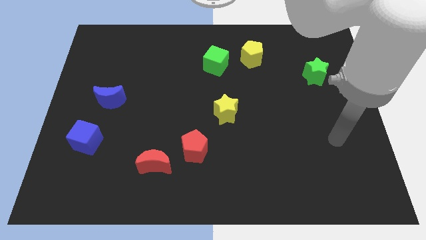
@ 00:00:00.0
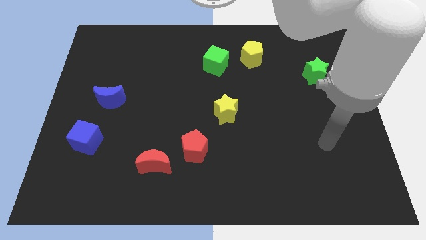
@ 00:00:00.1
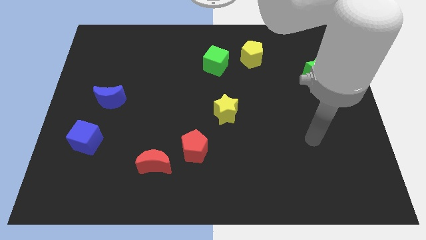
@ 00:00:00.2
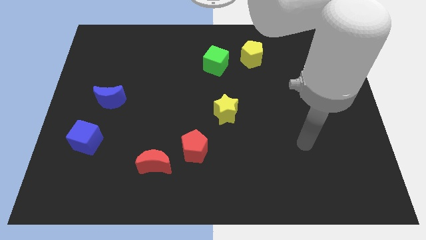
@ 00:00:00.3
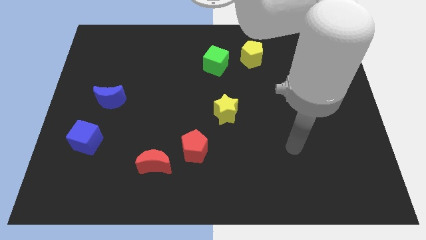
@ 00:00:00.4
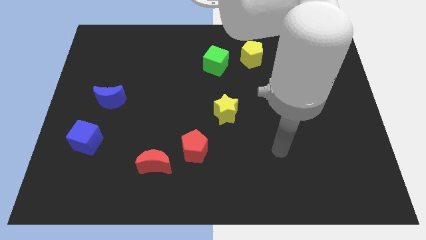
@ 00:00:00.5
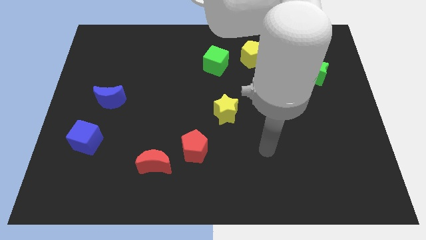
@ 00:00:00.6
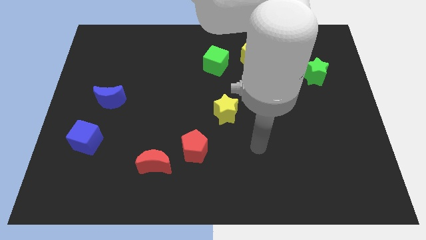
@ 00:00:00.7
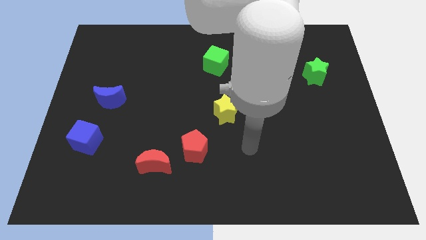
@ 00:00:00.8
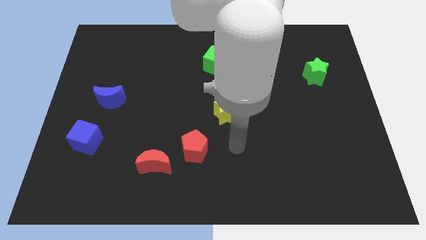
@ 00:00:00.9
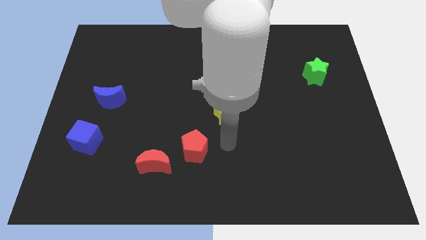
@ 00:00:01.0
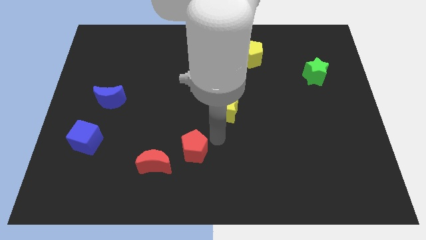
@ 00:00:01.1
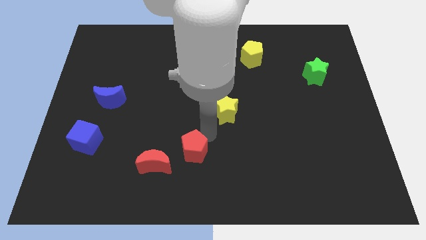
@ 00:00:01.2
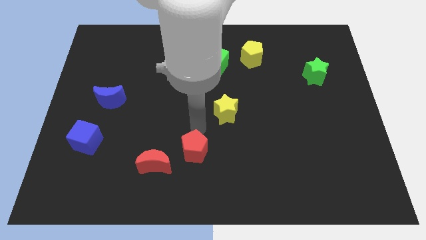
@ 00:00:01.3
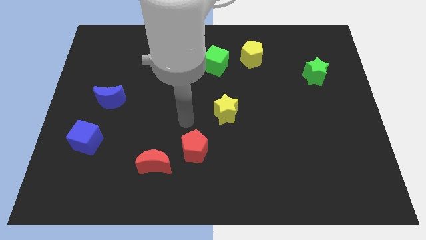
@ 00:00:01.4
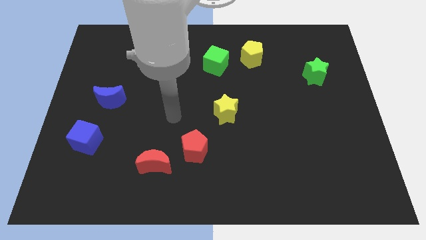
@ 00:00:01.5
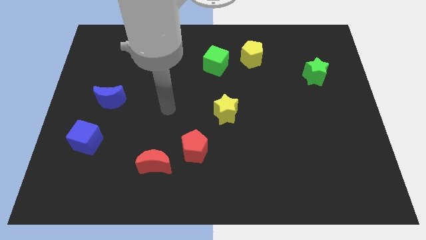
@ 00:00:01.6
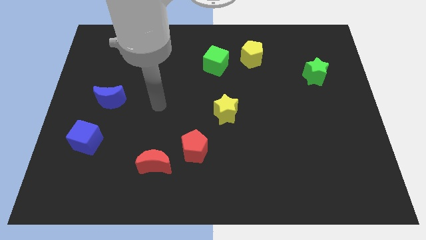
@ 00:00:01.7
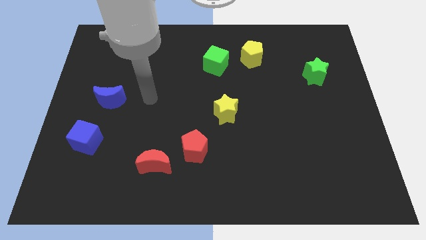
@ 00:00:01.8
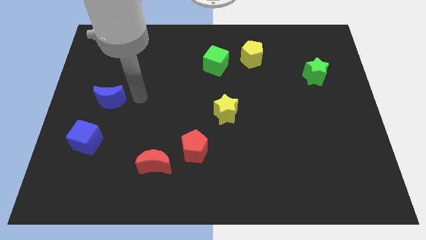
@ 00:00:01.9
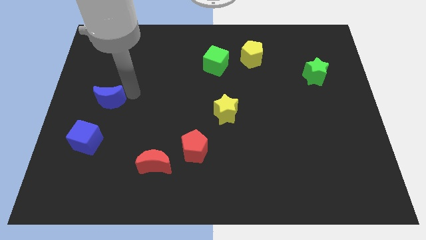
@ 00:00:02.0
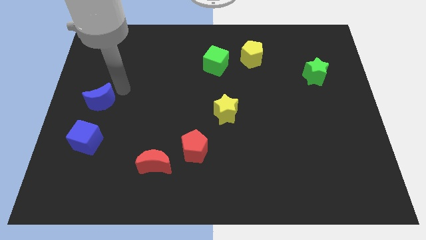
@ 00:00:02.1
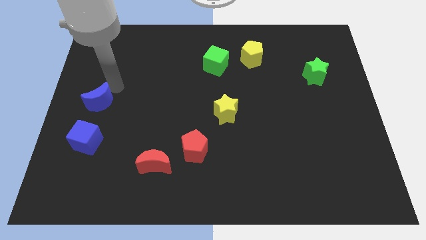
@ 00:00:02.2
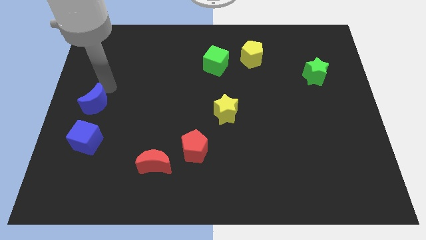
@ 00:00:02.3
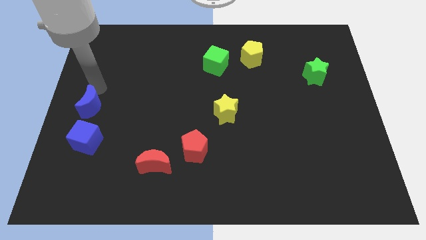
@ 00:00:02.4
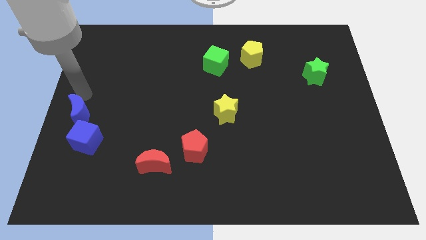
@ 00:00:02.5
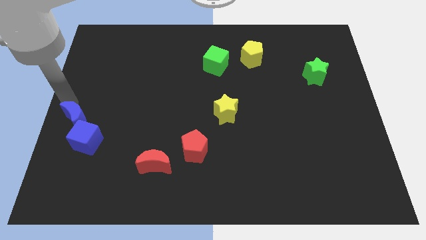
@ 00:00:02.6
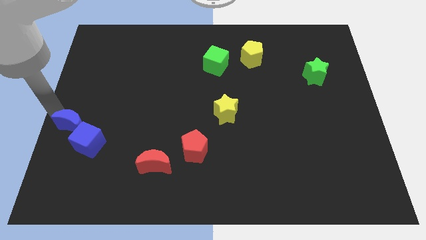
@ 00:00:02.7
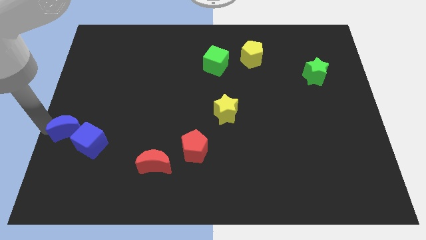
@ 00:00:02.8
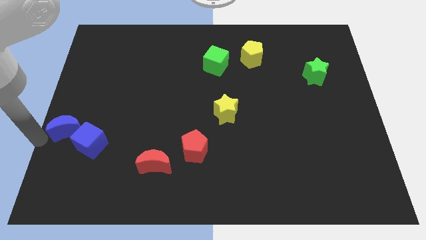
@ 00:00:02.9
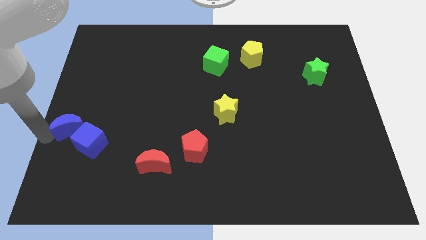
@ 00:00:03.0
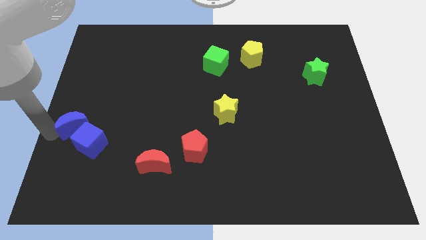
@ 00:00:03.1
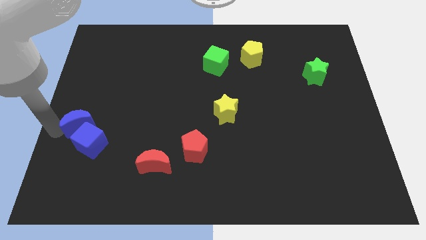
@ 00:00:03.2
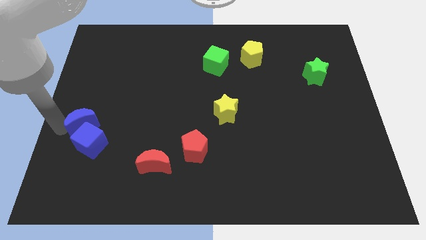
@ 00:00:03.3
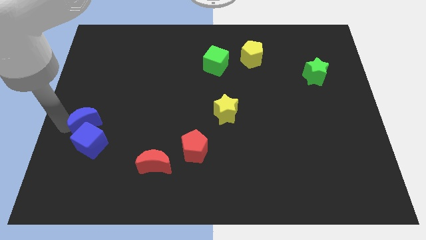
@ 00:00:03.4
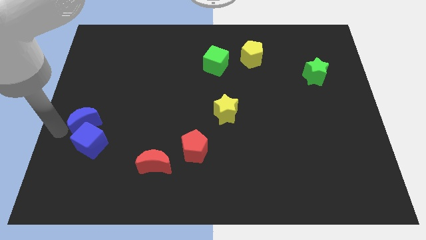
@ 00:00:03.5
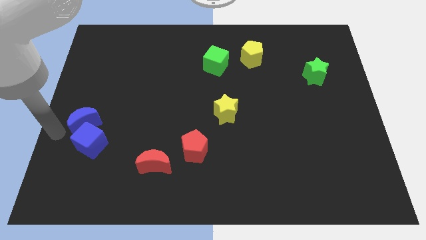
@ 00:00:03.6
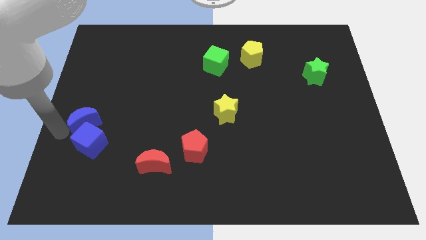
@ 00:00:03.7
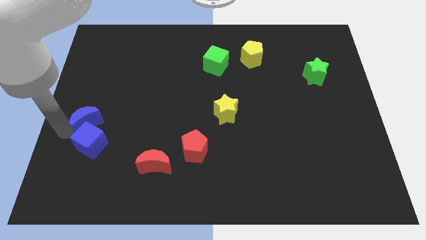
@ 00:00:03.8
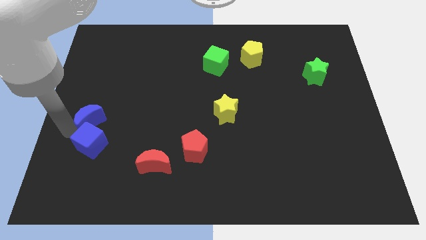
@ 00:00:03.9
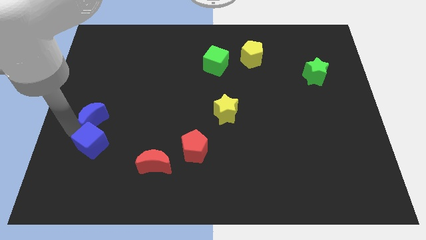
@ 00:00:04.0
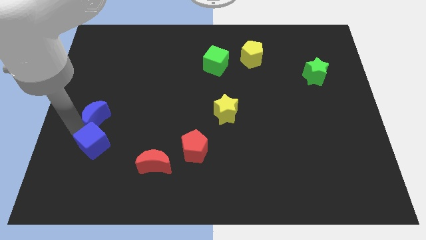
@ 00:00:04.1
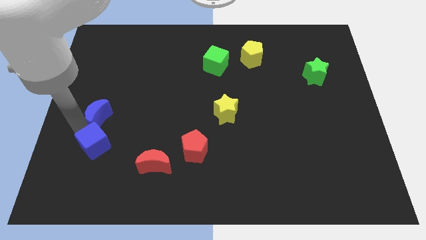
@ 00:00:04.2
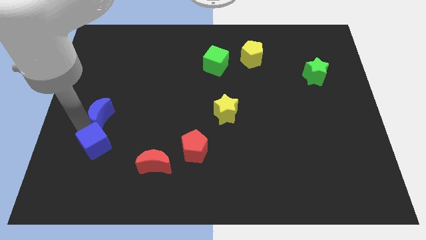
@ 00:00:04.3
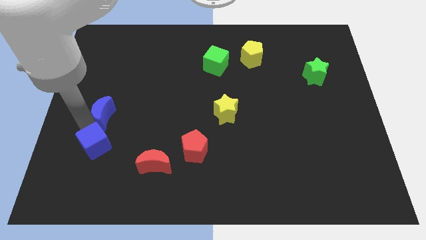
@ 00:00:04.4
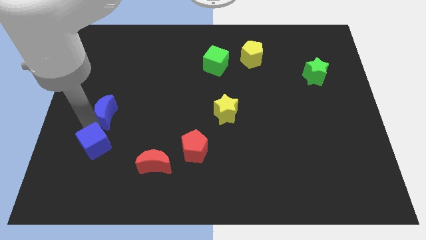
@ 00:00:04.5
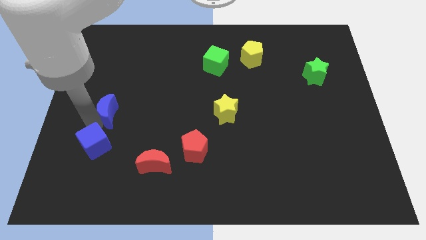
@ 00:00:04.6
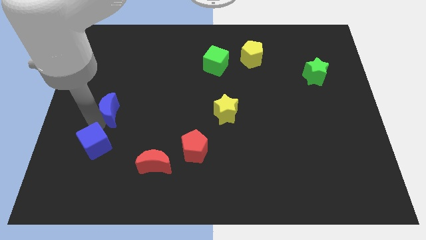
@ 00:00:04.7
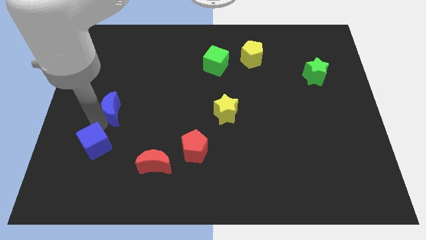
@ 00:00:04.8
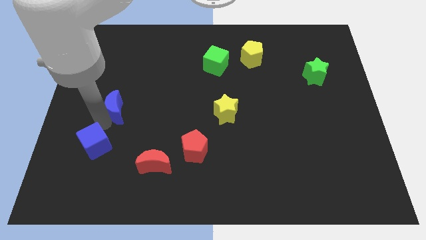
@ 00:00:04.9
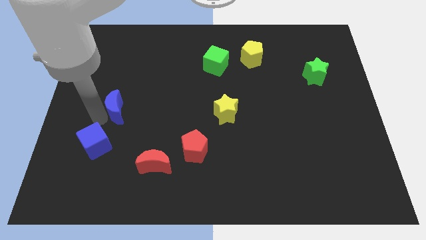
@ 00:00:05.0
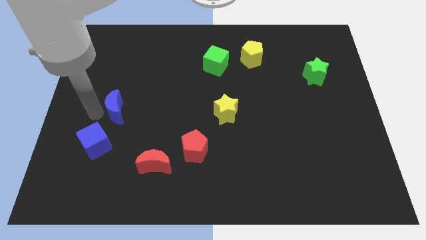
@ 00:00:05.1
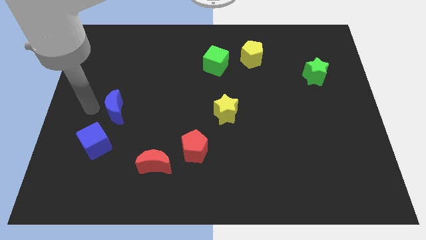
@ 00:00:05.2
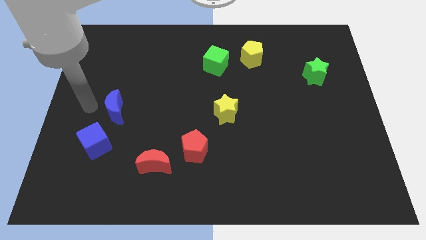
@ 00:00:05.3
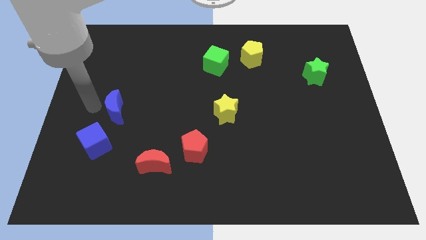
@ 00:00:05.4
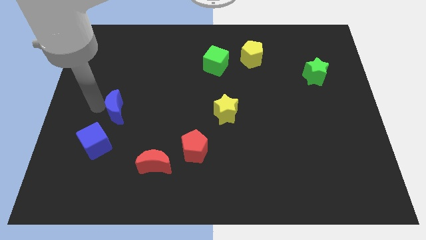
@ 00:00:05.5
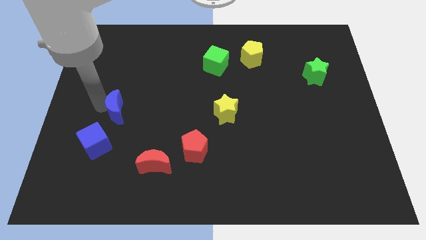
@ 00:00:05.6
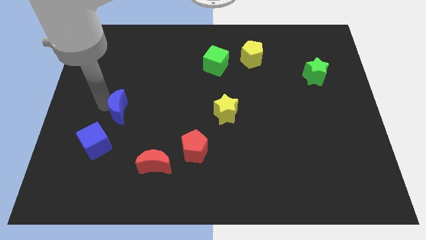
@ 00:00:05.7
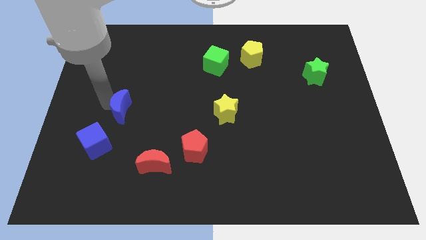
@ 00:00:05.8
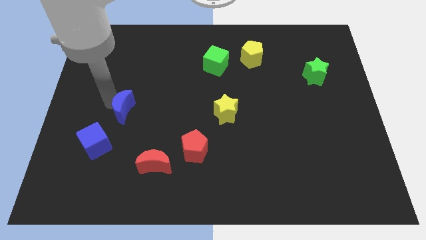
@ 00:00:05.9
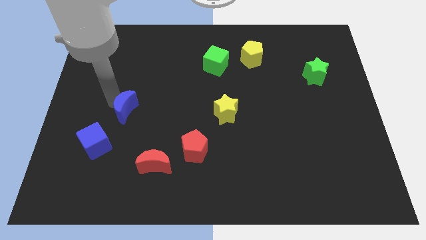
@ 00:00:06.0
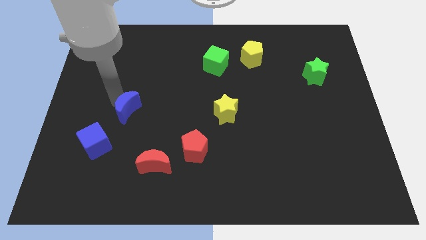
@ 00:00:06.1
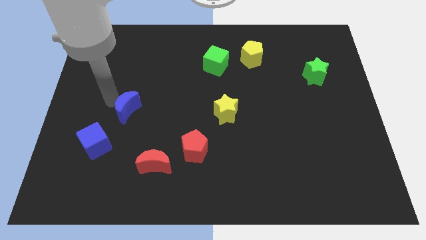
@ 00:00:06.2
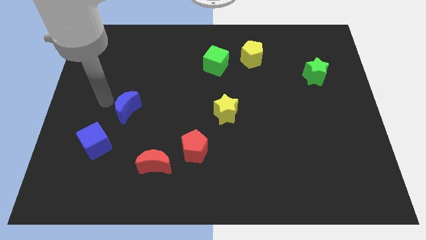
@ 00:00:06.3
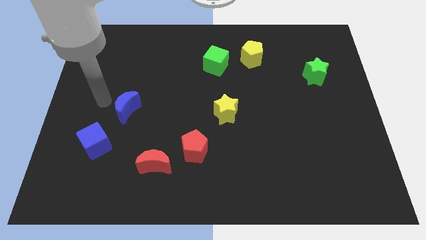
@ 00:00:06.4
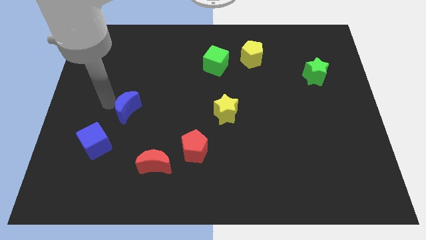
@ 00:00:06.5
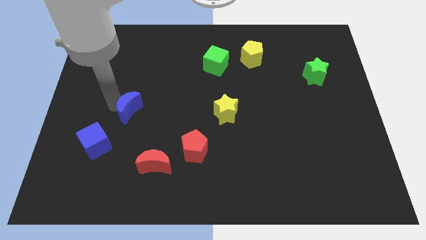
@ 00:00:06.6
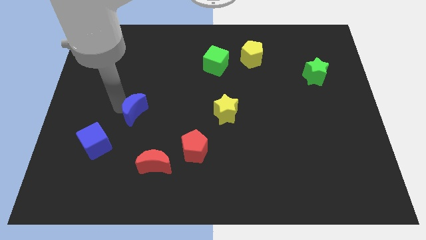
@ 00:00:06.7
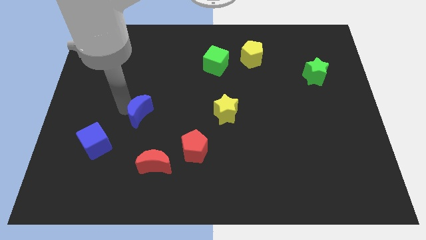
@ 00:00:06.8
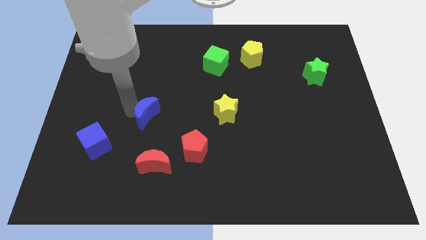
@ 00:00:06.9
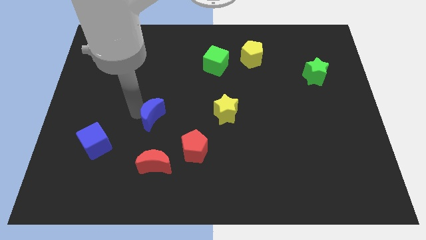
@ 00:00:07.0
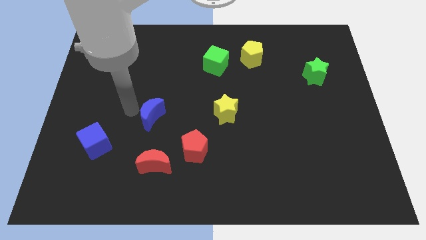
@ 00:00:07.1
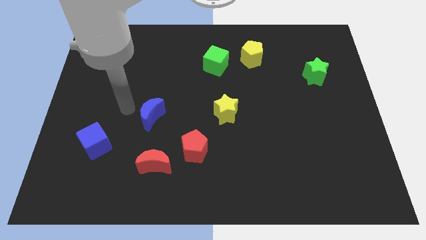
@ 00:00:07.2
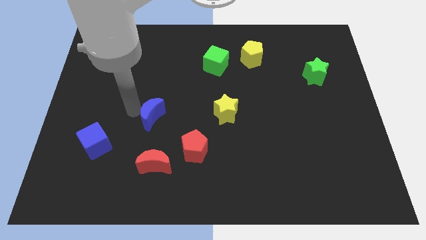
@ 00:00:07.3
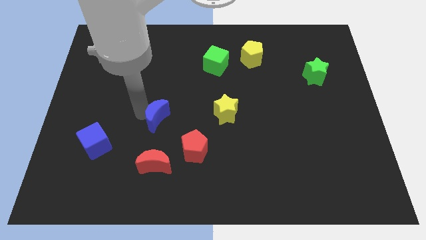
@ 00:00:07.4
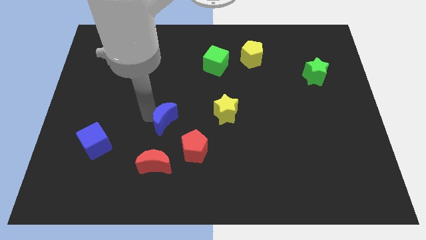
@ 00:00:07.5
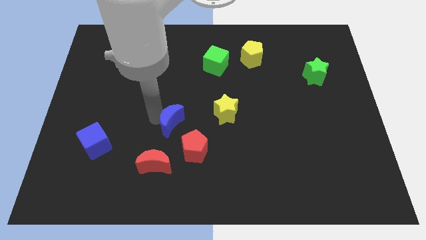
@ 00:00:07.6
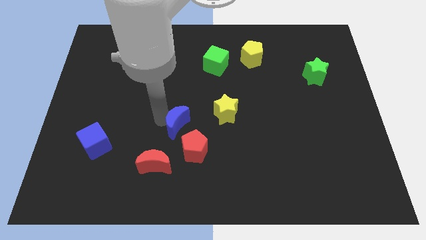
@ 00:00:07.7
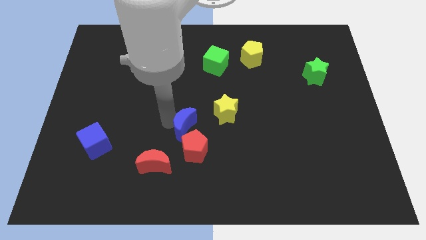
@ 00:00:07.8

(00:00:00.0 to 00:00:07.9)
push the blue moon to the bottom left of the yellow star
